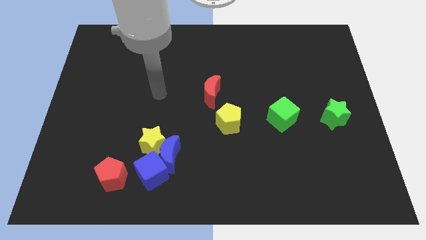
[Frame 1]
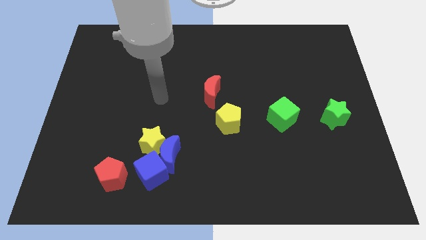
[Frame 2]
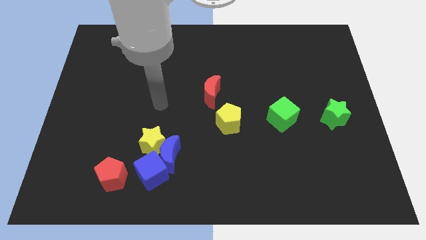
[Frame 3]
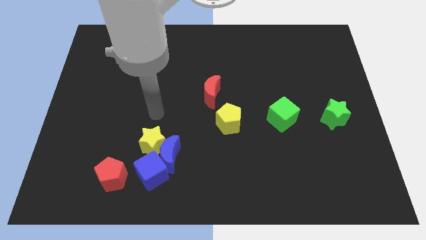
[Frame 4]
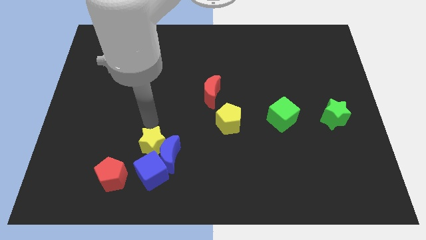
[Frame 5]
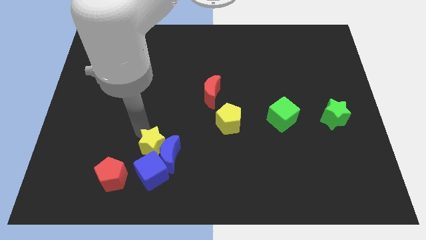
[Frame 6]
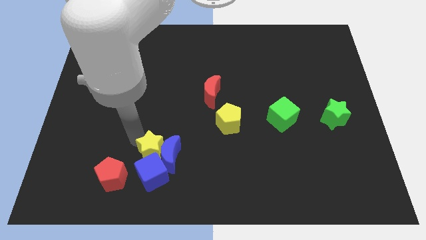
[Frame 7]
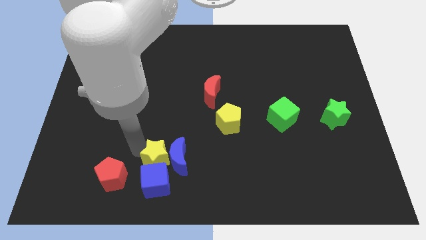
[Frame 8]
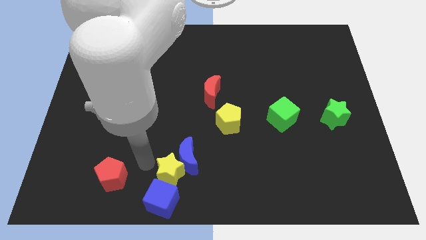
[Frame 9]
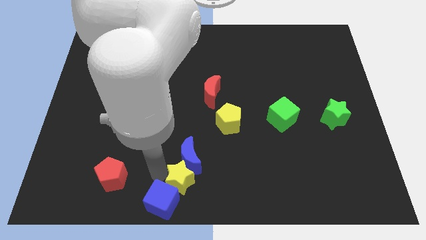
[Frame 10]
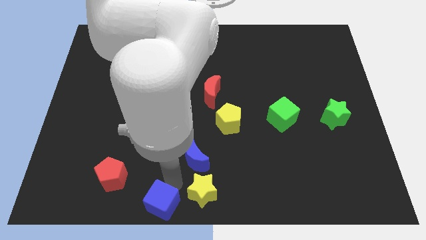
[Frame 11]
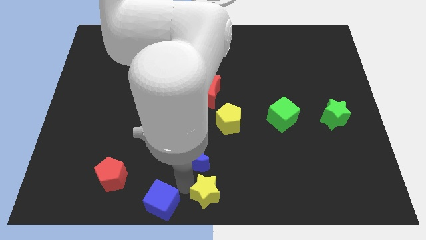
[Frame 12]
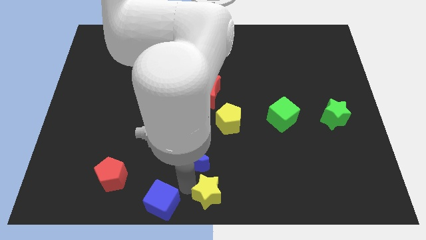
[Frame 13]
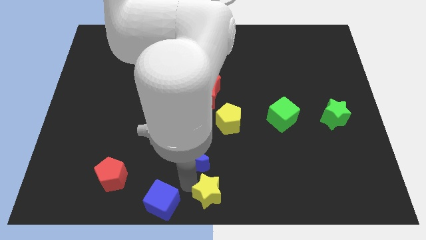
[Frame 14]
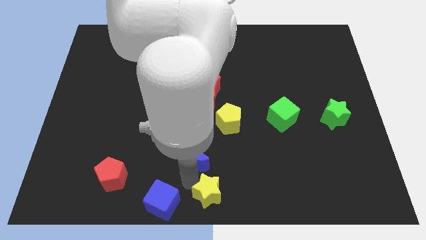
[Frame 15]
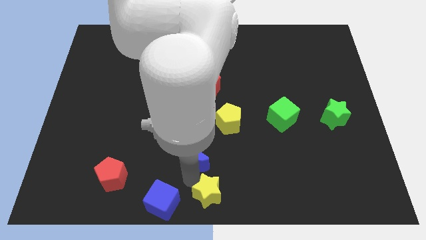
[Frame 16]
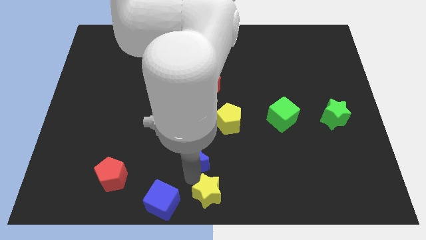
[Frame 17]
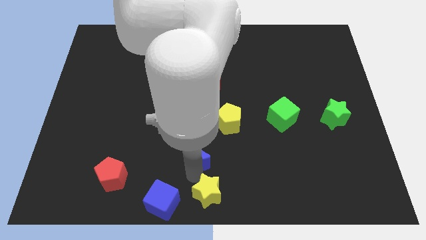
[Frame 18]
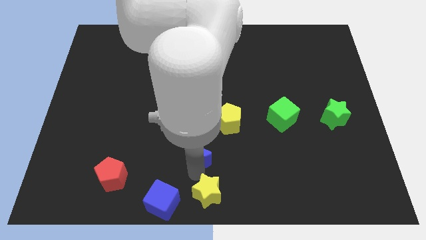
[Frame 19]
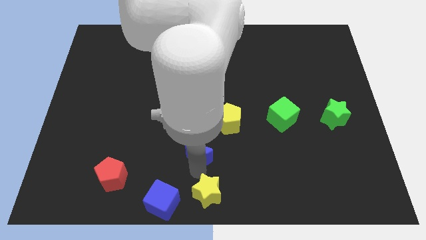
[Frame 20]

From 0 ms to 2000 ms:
pull the blue moon apart from the yellow star and blue cube

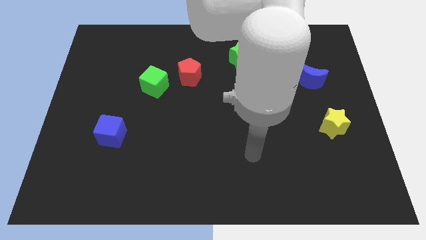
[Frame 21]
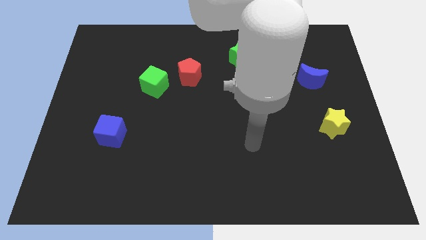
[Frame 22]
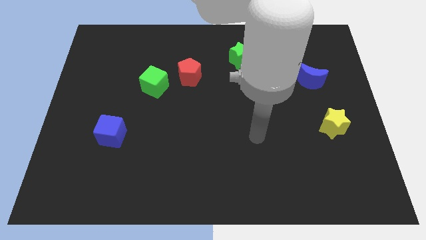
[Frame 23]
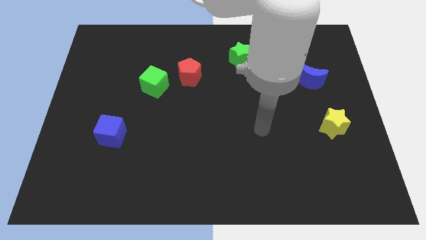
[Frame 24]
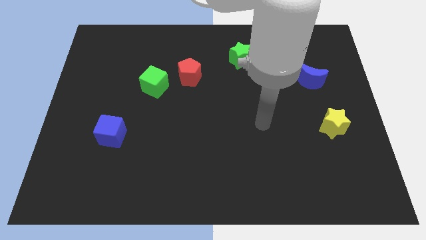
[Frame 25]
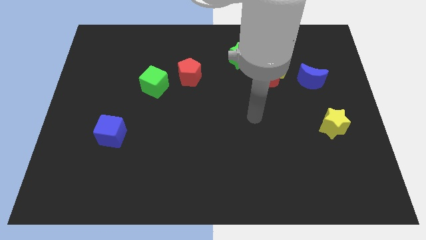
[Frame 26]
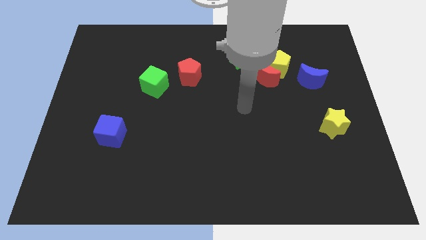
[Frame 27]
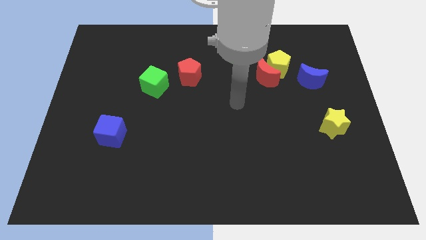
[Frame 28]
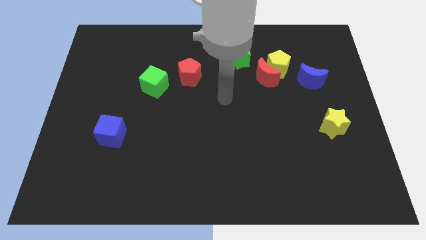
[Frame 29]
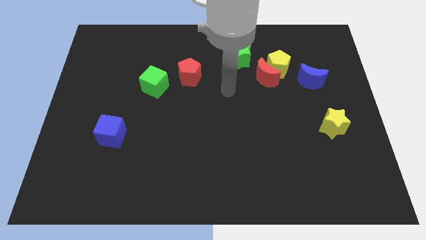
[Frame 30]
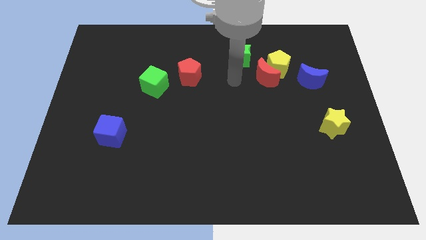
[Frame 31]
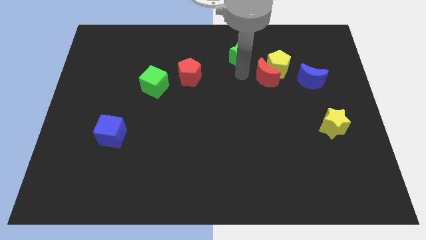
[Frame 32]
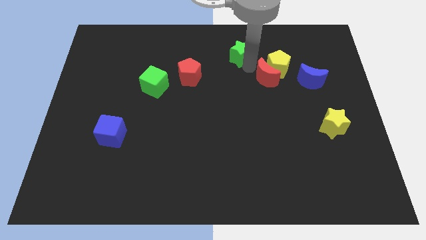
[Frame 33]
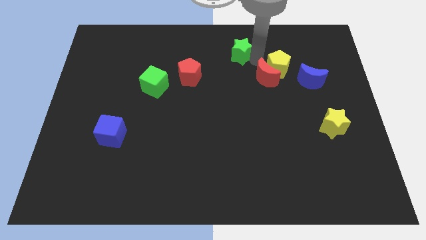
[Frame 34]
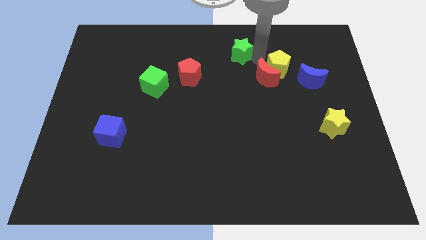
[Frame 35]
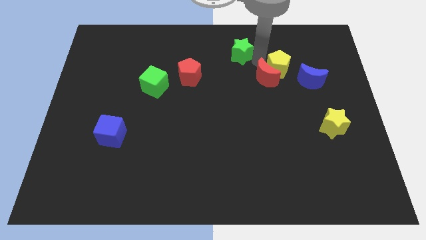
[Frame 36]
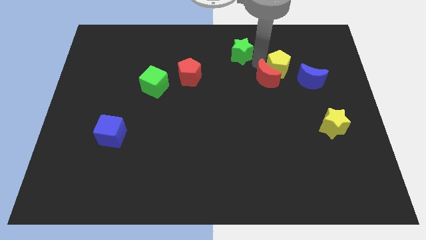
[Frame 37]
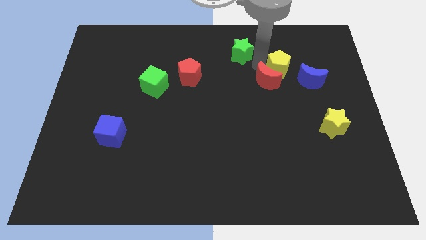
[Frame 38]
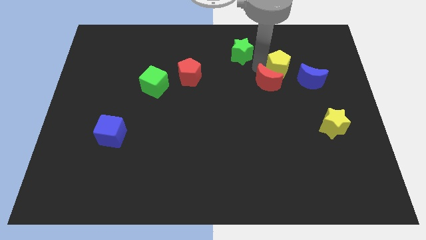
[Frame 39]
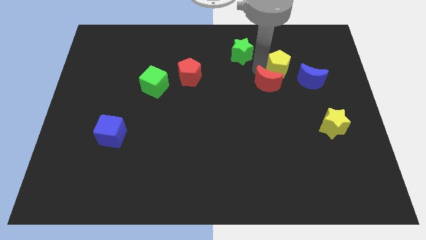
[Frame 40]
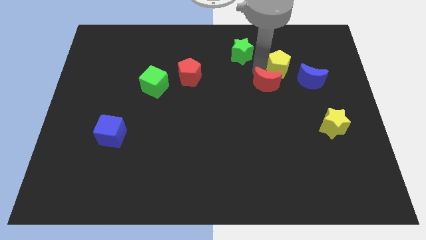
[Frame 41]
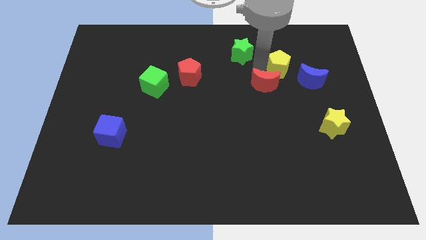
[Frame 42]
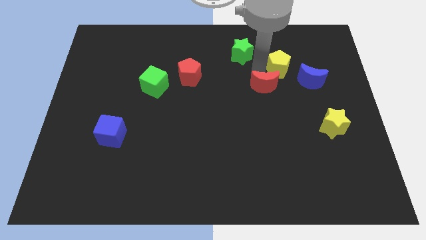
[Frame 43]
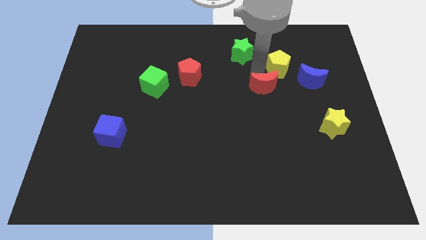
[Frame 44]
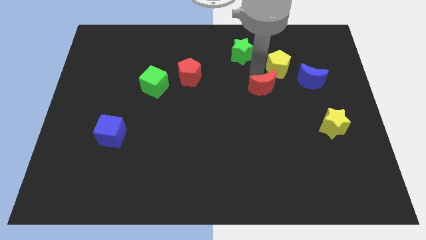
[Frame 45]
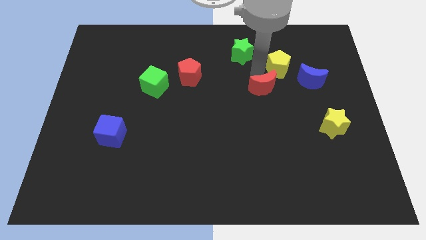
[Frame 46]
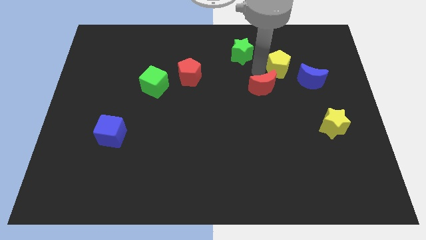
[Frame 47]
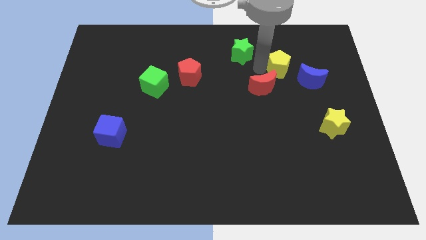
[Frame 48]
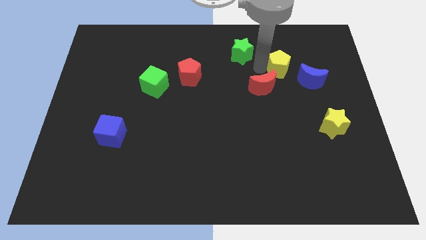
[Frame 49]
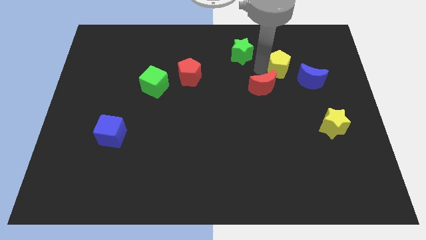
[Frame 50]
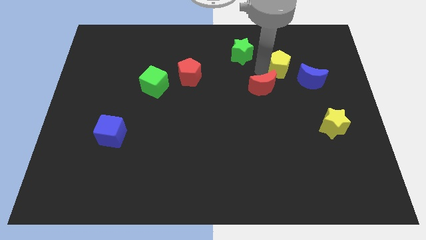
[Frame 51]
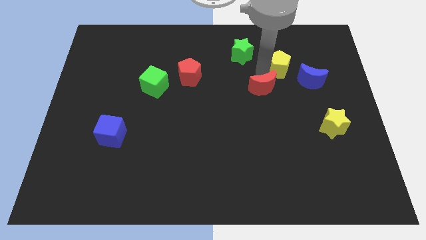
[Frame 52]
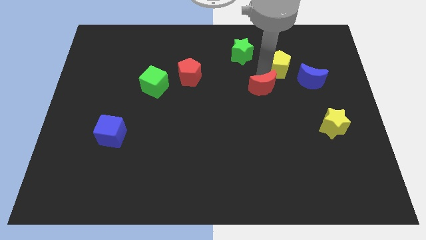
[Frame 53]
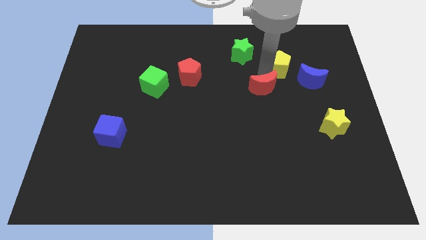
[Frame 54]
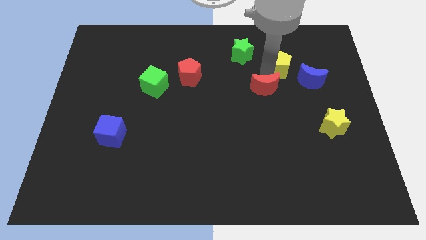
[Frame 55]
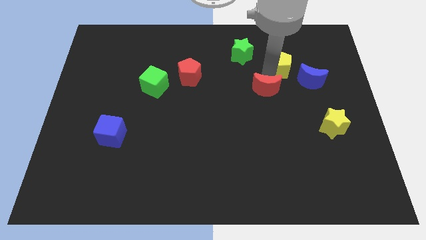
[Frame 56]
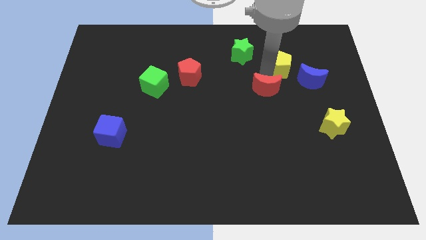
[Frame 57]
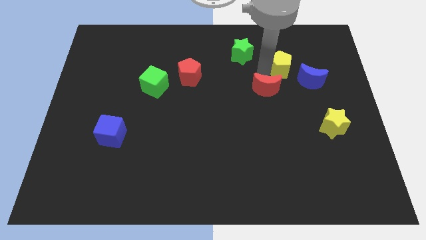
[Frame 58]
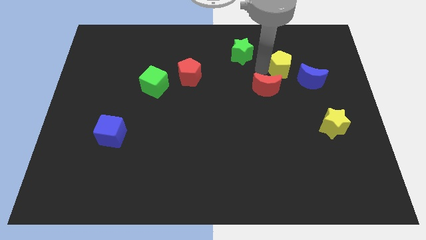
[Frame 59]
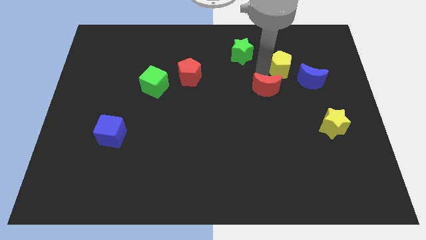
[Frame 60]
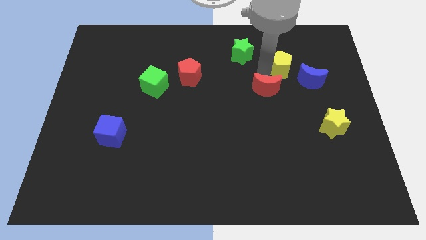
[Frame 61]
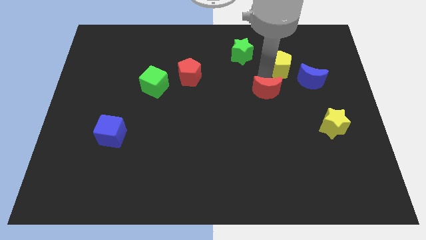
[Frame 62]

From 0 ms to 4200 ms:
move the red moon away from the yellow pentagon and green star

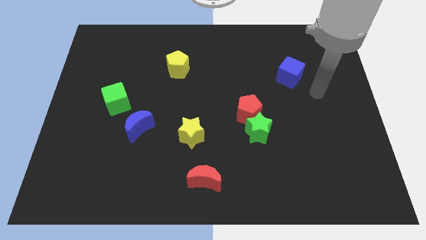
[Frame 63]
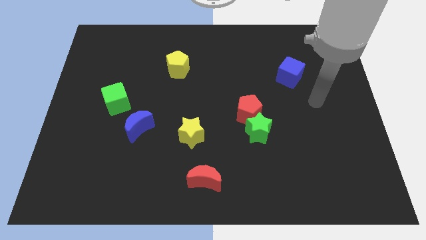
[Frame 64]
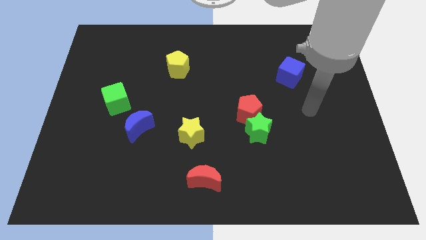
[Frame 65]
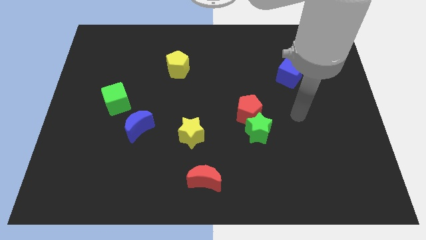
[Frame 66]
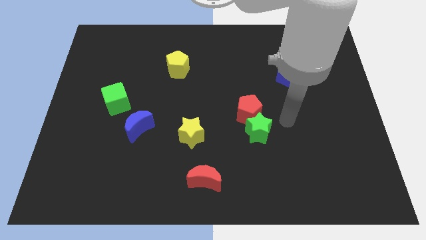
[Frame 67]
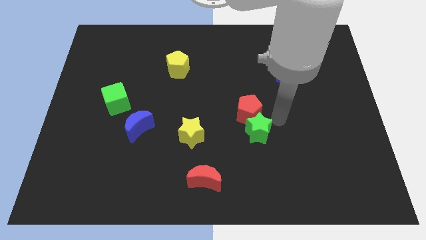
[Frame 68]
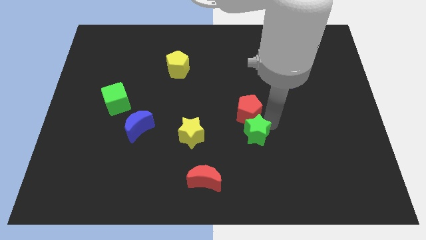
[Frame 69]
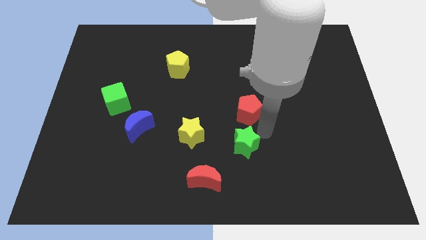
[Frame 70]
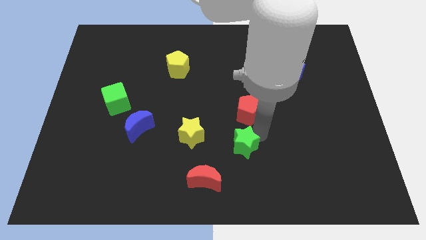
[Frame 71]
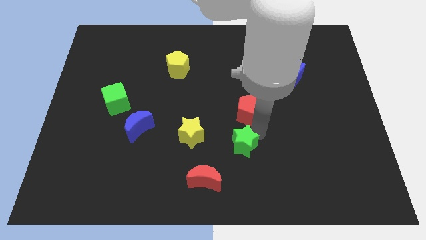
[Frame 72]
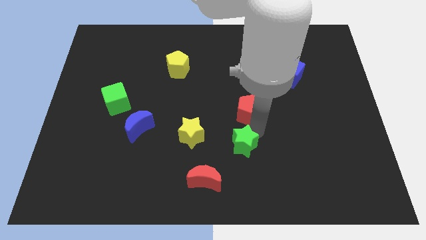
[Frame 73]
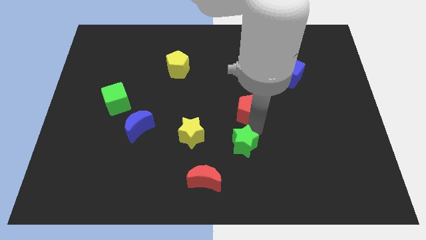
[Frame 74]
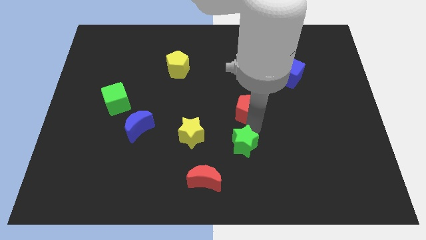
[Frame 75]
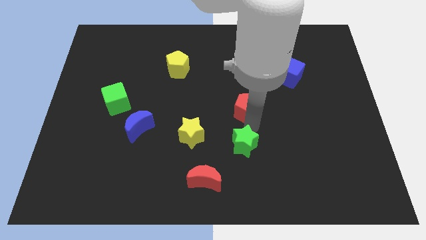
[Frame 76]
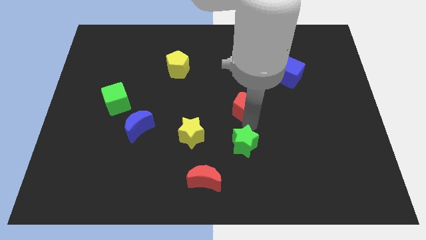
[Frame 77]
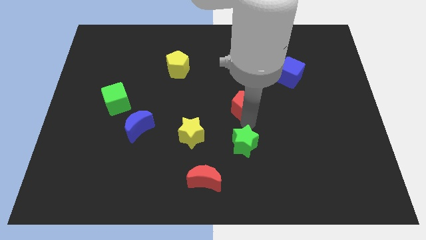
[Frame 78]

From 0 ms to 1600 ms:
move the red pentagon away from the green star

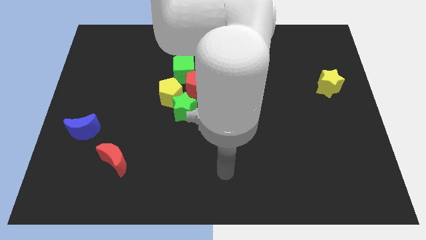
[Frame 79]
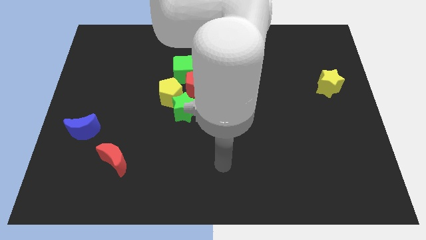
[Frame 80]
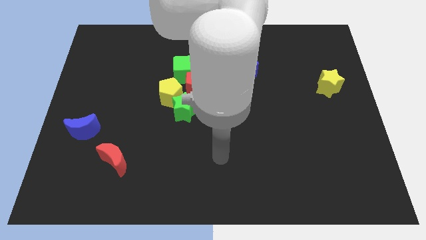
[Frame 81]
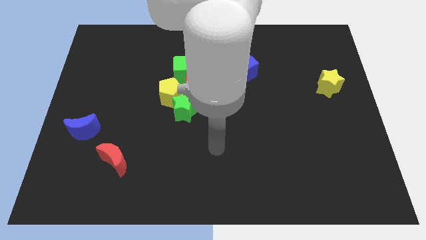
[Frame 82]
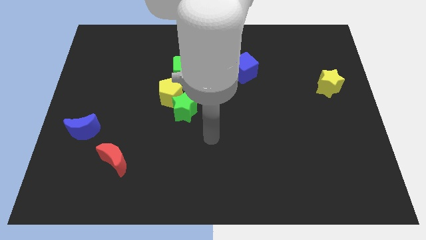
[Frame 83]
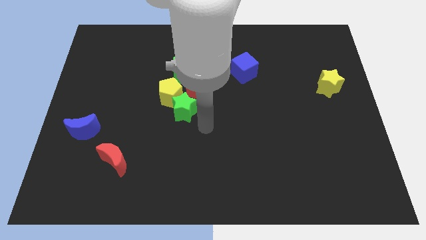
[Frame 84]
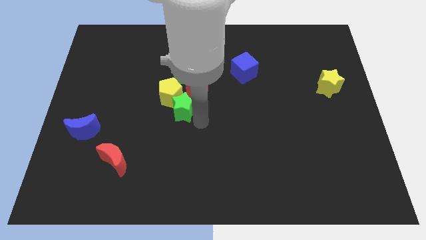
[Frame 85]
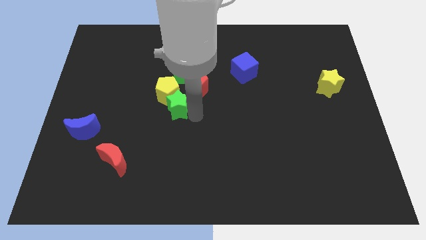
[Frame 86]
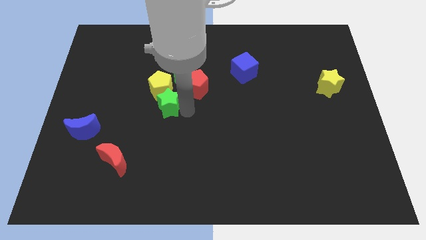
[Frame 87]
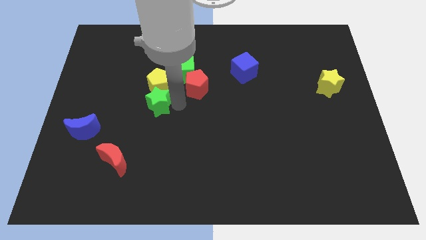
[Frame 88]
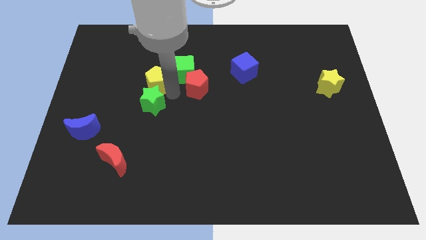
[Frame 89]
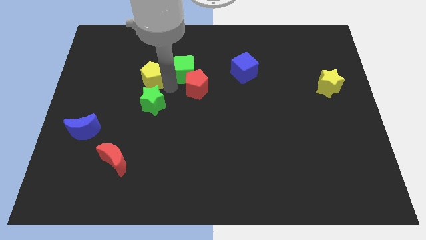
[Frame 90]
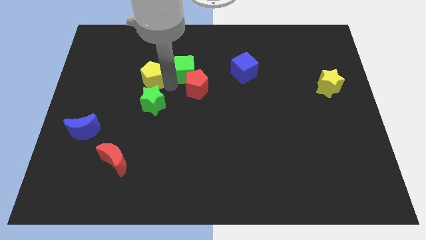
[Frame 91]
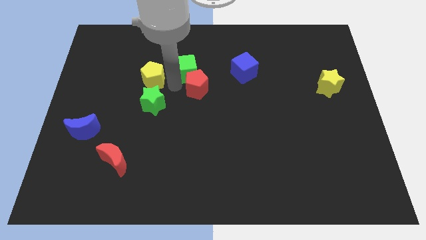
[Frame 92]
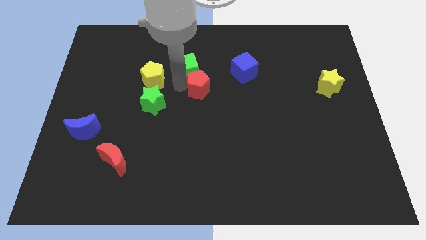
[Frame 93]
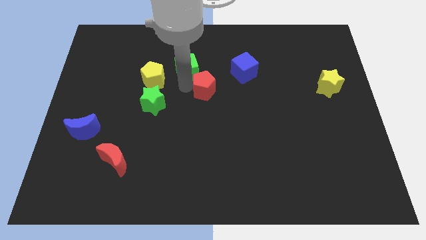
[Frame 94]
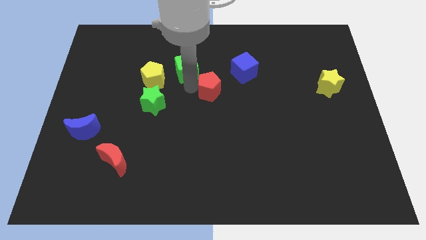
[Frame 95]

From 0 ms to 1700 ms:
separate the red pentagon from the green cube, yellow pentagon, and green star

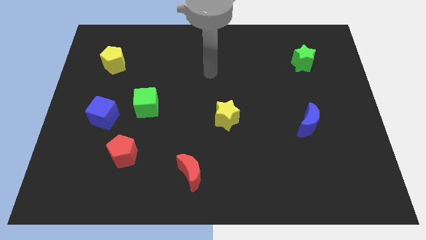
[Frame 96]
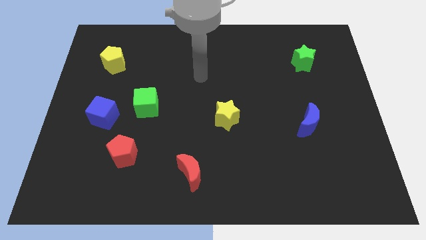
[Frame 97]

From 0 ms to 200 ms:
pull the blue cube apart from the green cube
